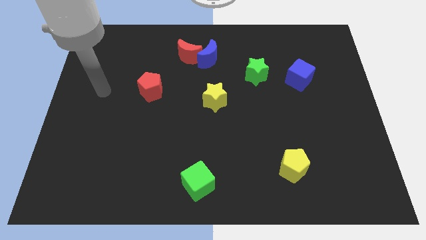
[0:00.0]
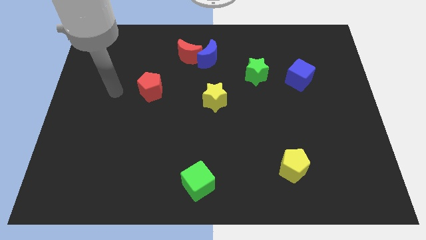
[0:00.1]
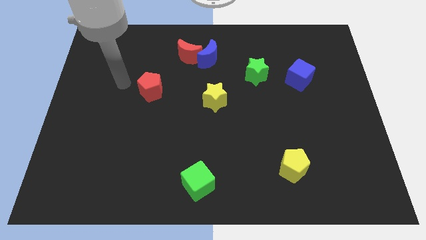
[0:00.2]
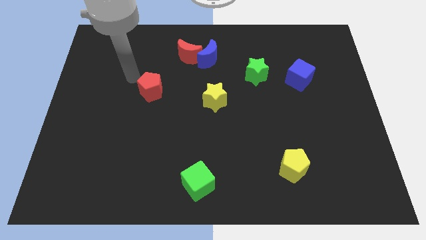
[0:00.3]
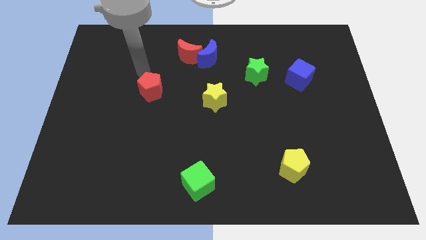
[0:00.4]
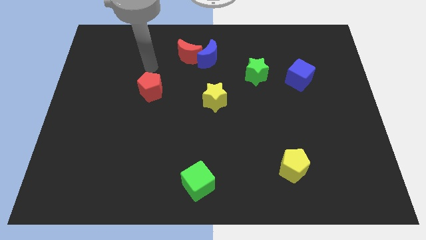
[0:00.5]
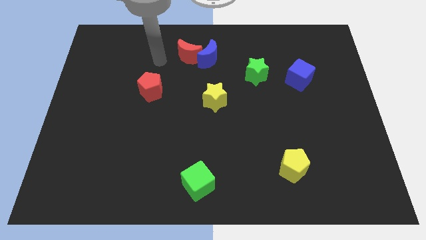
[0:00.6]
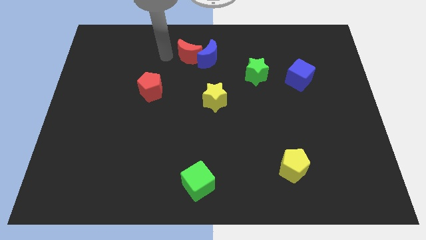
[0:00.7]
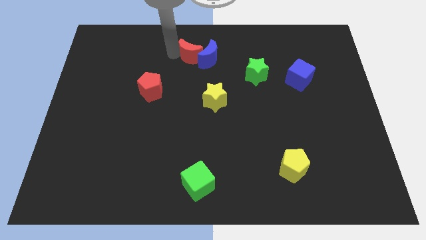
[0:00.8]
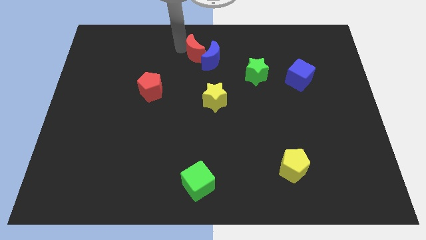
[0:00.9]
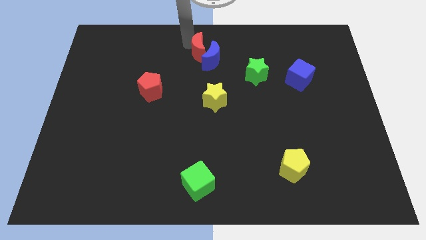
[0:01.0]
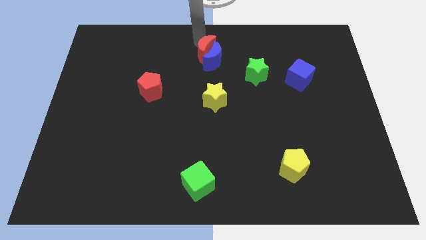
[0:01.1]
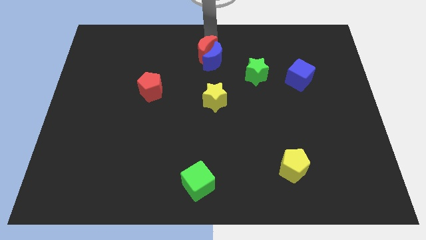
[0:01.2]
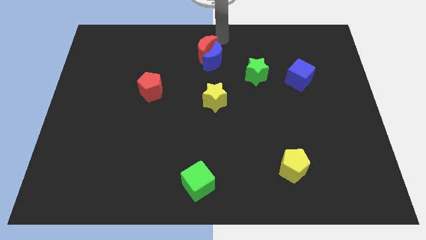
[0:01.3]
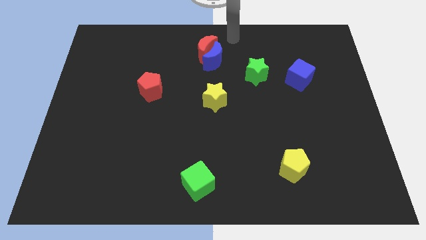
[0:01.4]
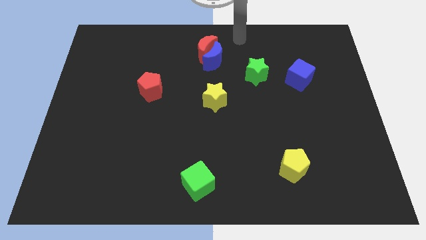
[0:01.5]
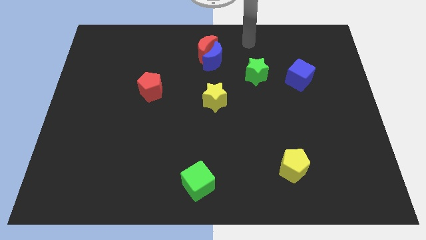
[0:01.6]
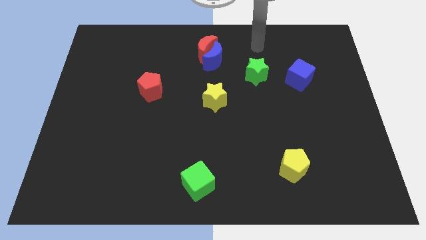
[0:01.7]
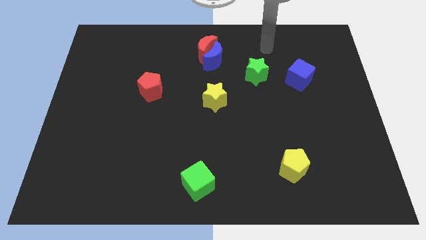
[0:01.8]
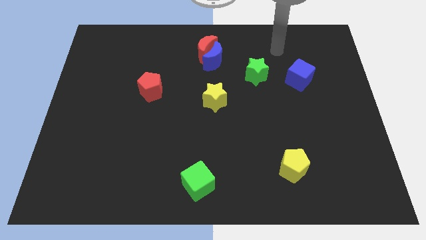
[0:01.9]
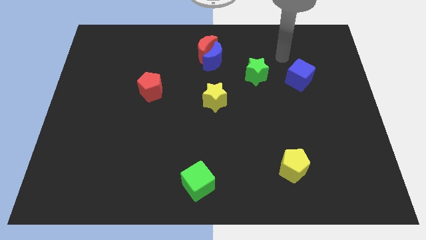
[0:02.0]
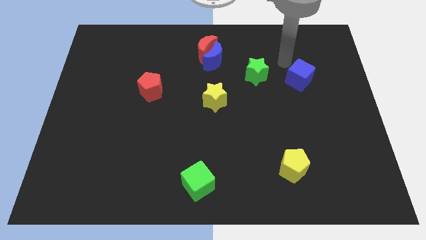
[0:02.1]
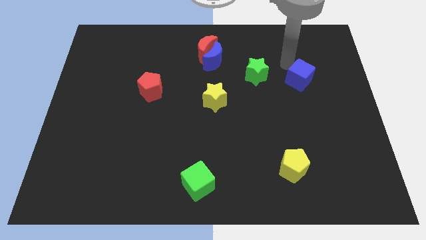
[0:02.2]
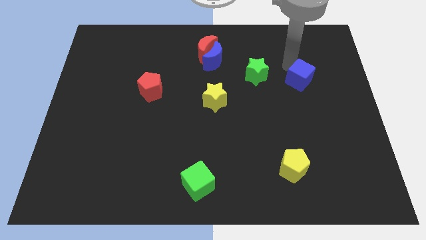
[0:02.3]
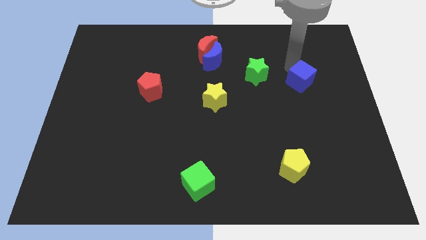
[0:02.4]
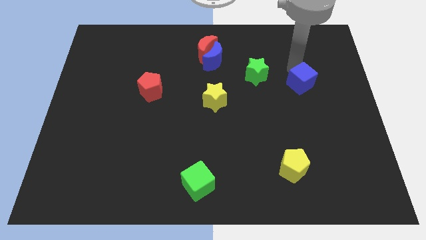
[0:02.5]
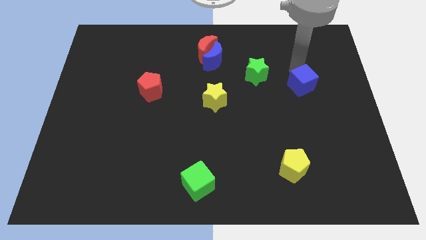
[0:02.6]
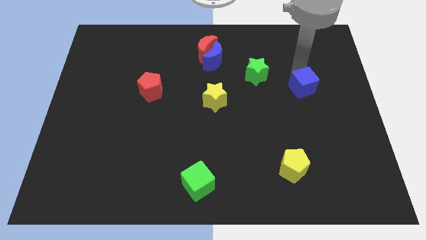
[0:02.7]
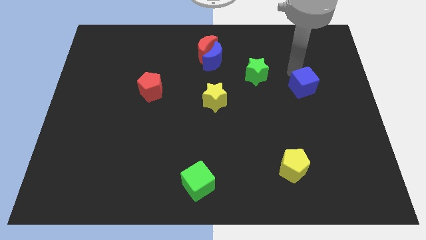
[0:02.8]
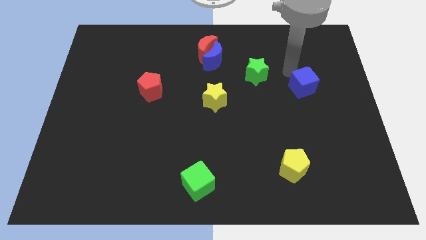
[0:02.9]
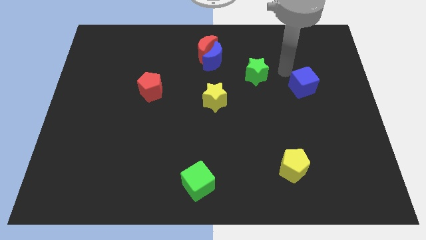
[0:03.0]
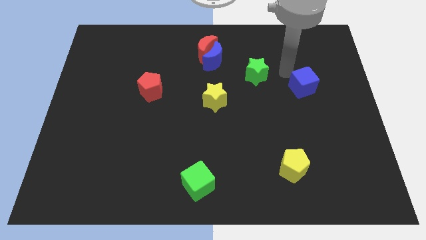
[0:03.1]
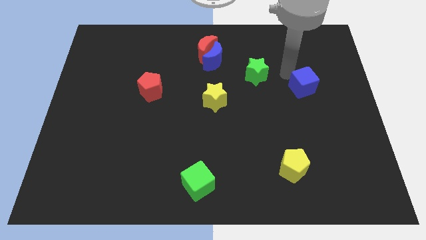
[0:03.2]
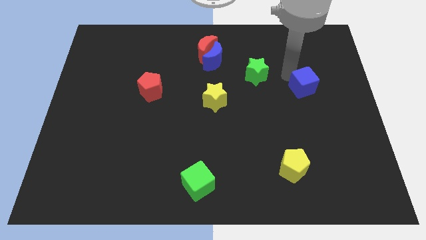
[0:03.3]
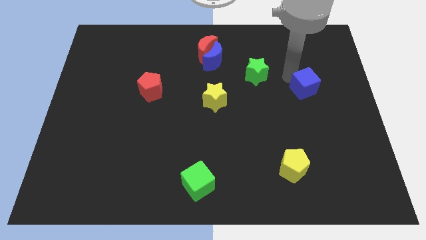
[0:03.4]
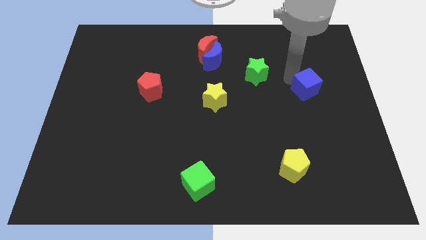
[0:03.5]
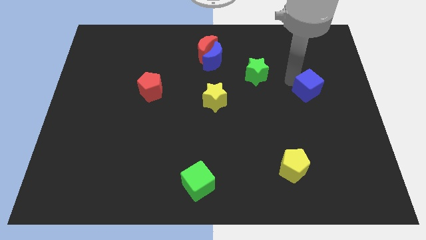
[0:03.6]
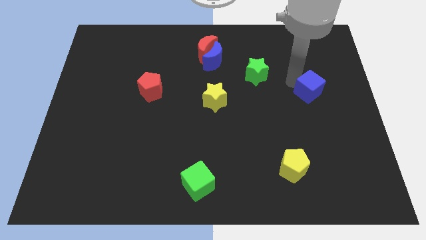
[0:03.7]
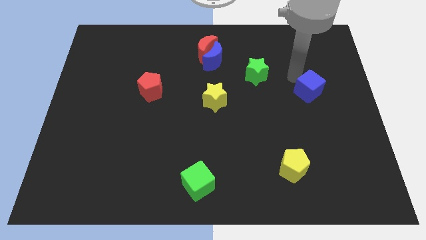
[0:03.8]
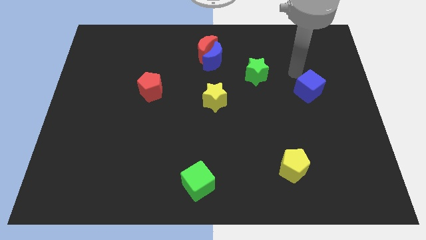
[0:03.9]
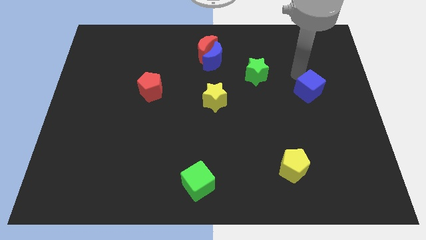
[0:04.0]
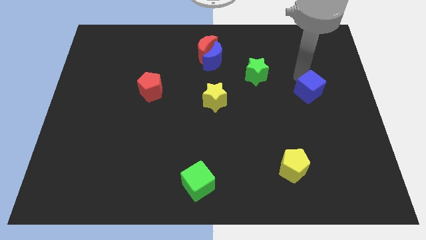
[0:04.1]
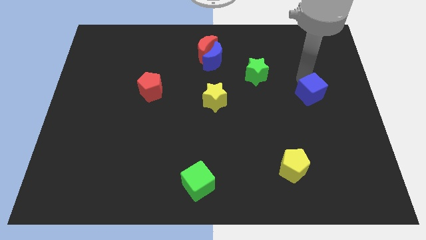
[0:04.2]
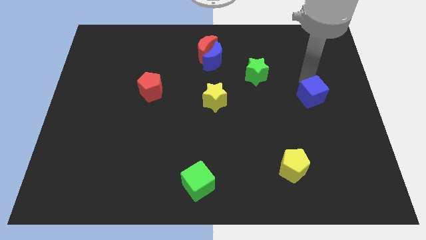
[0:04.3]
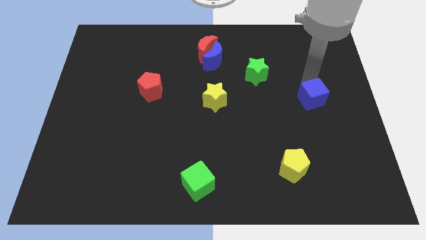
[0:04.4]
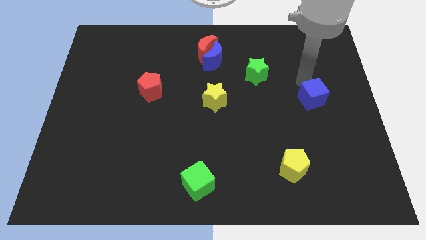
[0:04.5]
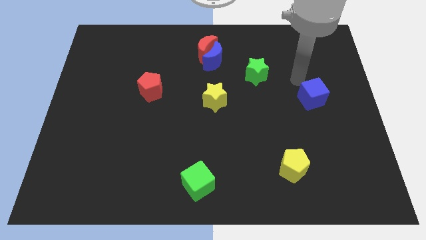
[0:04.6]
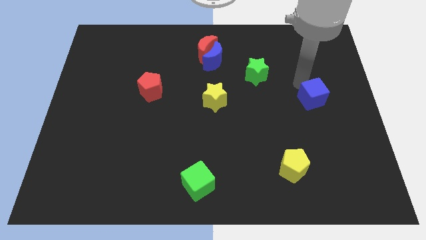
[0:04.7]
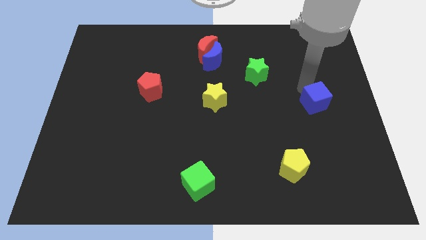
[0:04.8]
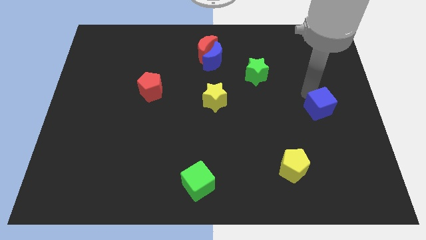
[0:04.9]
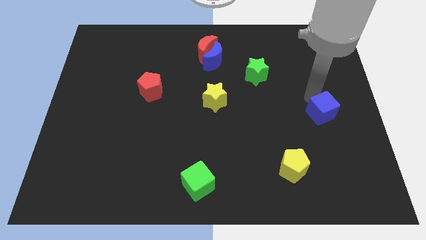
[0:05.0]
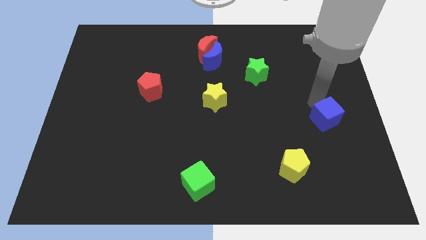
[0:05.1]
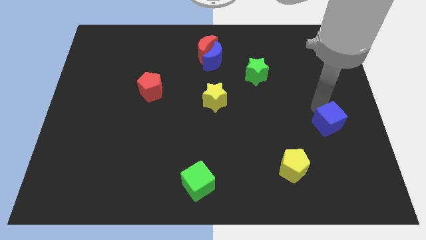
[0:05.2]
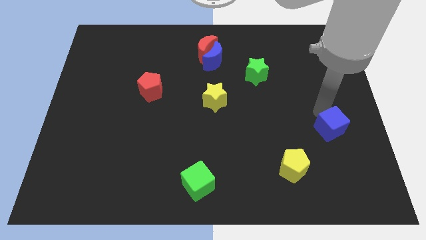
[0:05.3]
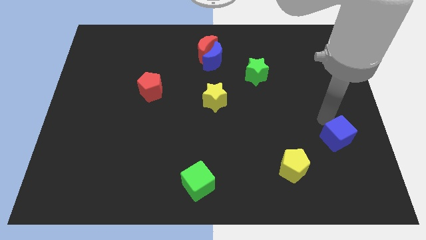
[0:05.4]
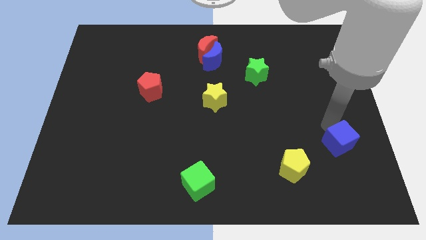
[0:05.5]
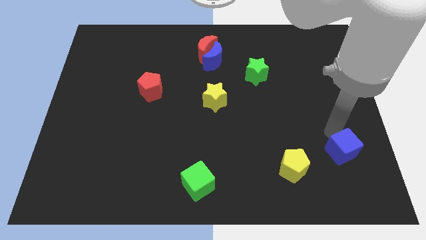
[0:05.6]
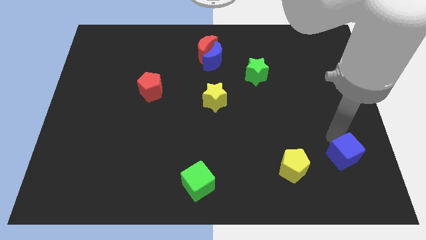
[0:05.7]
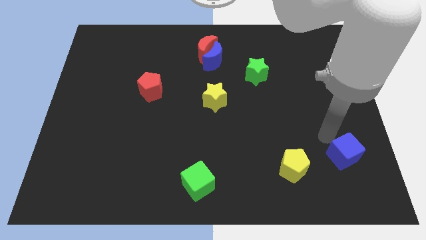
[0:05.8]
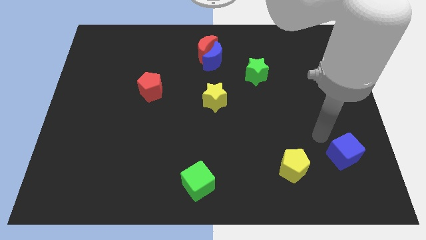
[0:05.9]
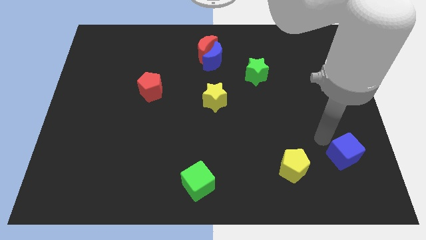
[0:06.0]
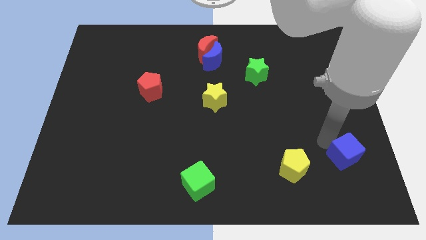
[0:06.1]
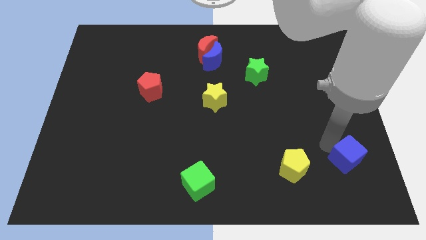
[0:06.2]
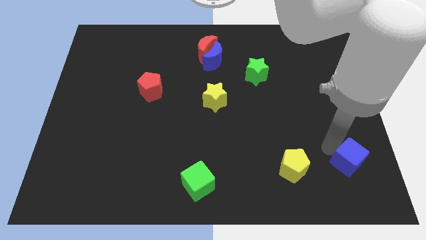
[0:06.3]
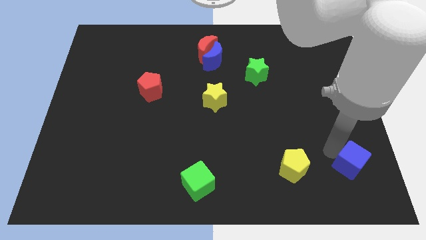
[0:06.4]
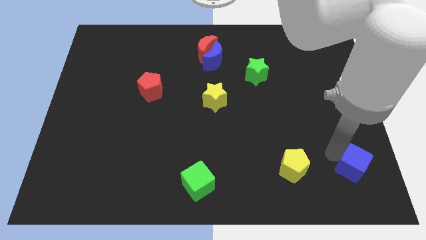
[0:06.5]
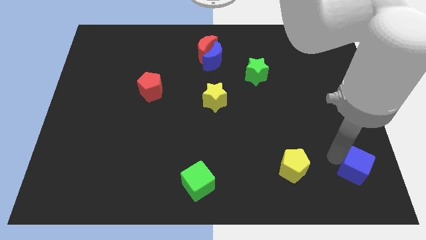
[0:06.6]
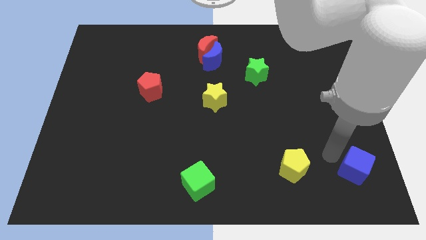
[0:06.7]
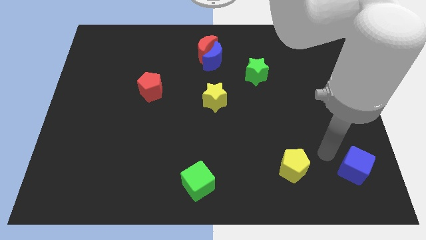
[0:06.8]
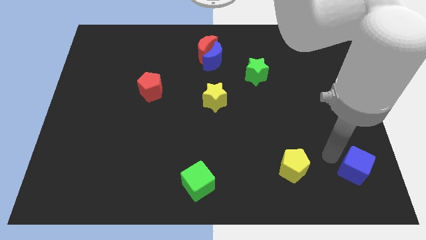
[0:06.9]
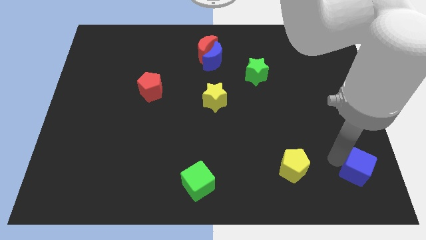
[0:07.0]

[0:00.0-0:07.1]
put the blue cube to the lower right corner
